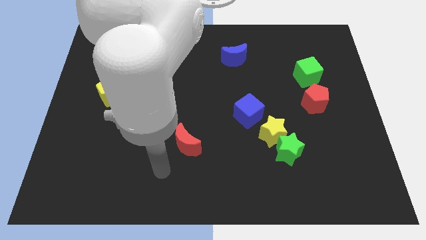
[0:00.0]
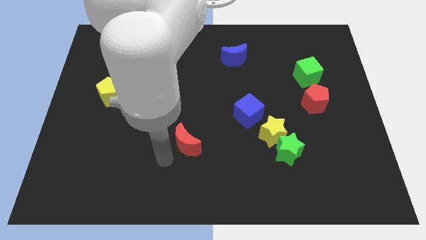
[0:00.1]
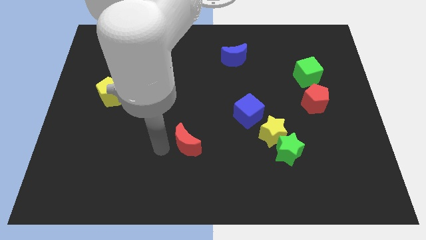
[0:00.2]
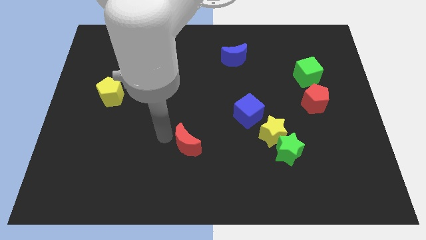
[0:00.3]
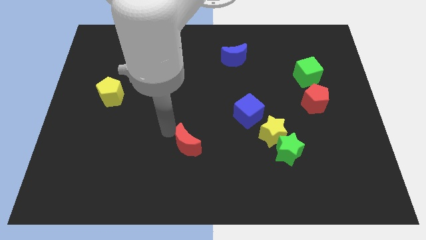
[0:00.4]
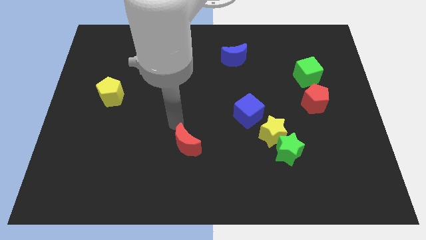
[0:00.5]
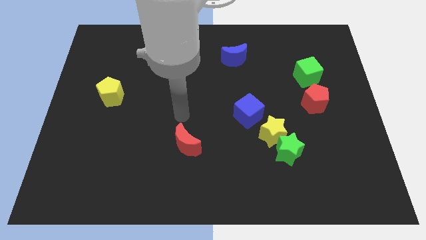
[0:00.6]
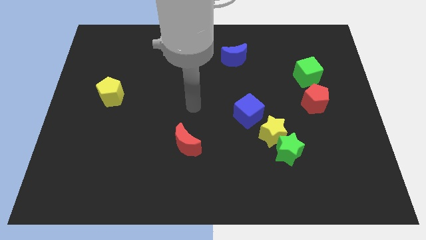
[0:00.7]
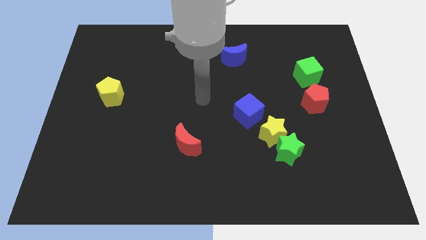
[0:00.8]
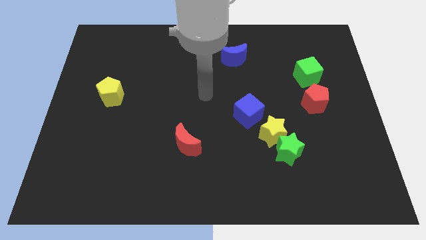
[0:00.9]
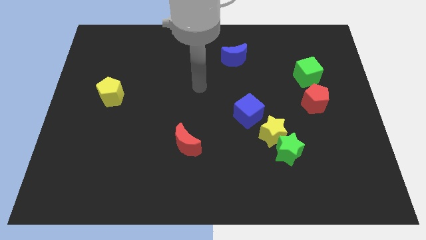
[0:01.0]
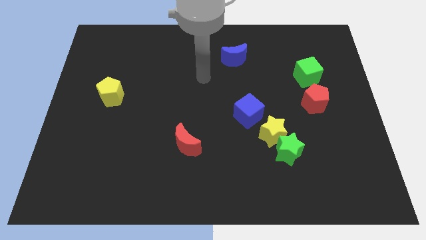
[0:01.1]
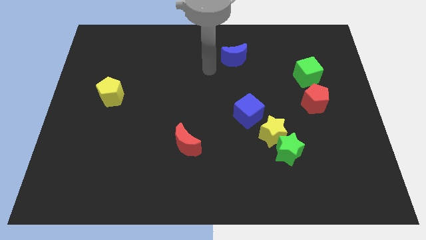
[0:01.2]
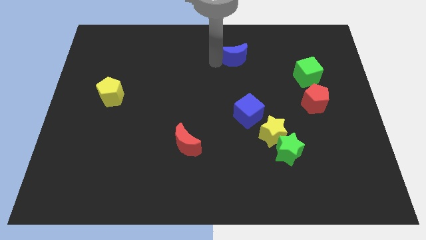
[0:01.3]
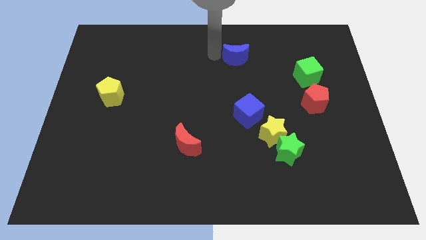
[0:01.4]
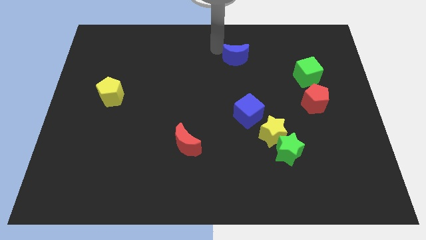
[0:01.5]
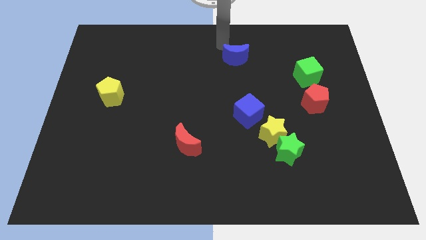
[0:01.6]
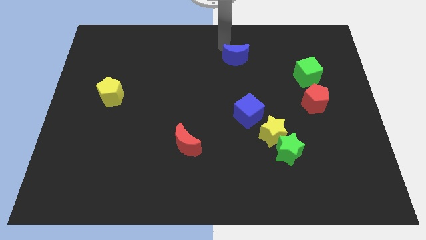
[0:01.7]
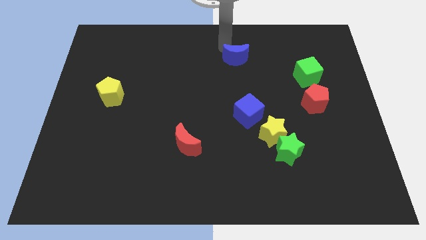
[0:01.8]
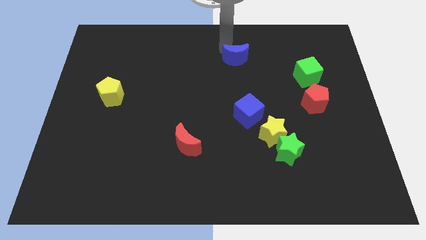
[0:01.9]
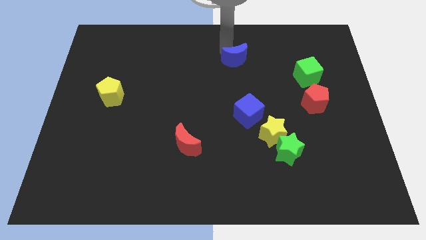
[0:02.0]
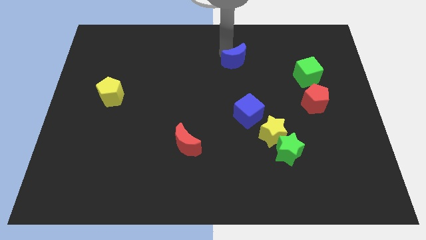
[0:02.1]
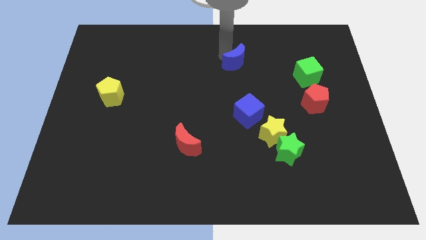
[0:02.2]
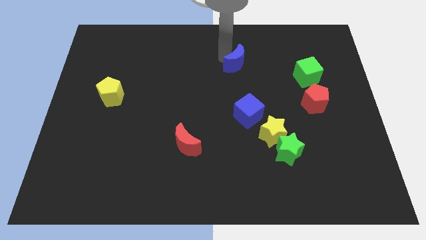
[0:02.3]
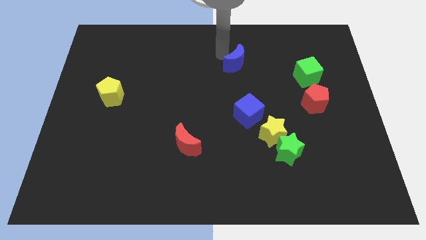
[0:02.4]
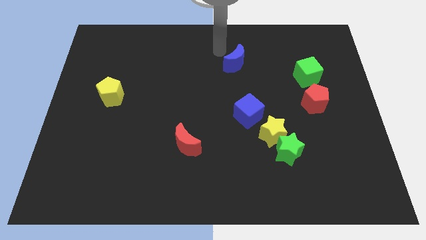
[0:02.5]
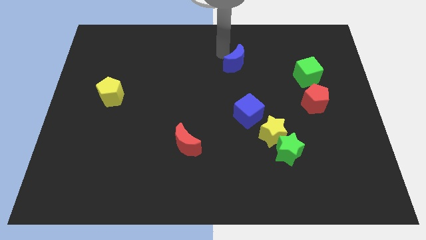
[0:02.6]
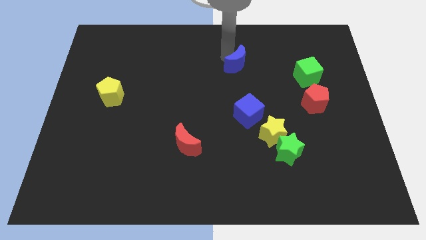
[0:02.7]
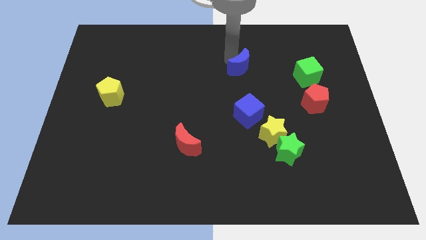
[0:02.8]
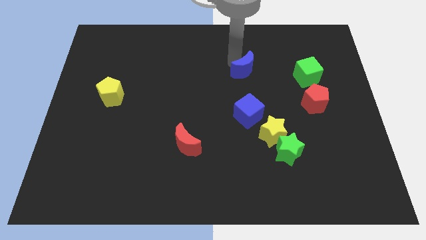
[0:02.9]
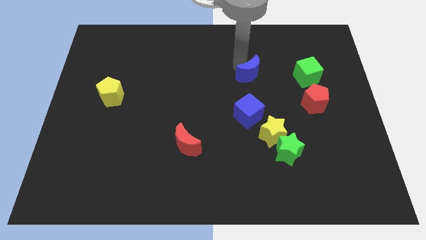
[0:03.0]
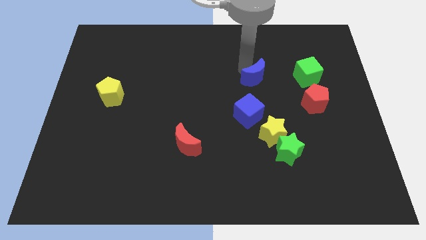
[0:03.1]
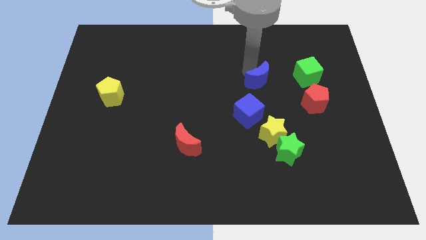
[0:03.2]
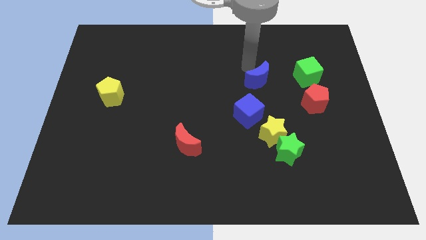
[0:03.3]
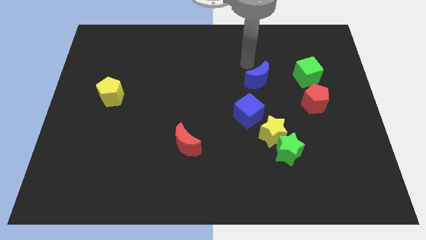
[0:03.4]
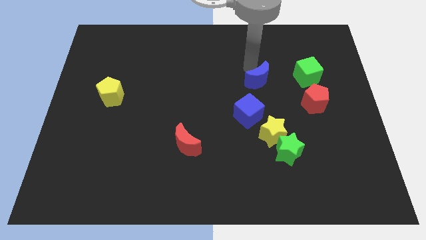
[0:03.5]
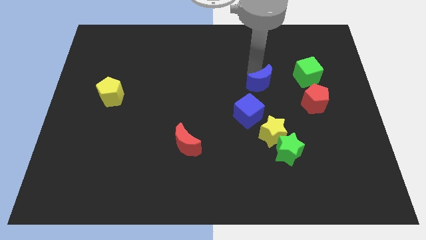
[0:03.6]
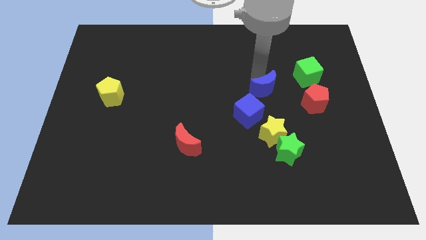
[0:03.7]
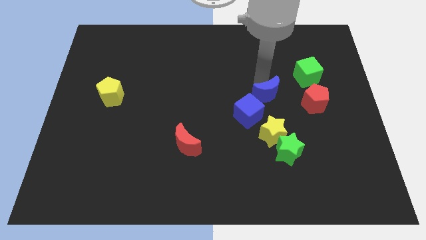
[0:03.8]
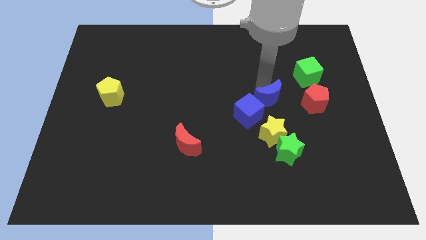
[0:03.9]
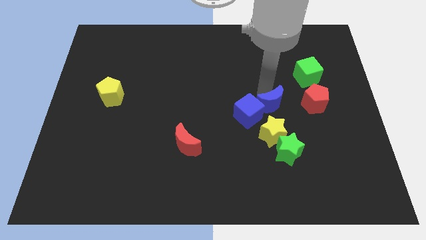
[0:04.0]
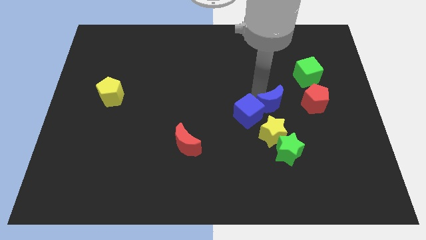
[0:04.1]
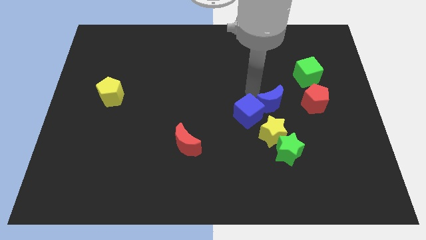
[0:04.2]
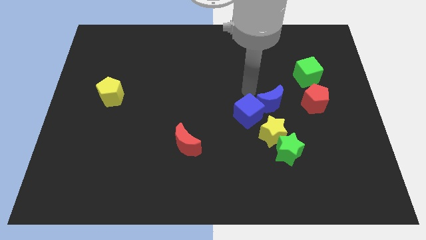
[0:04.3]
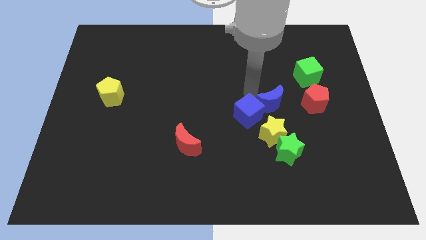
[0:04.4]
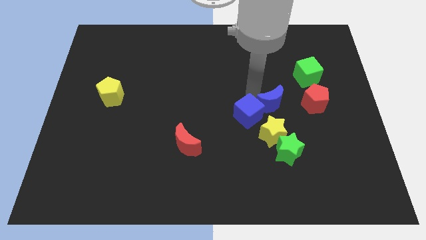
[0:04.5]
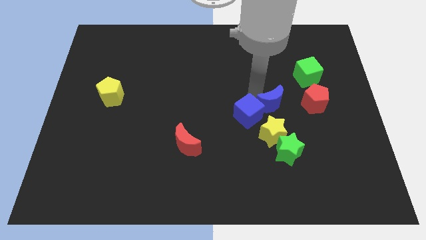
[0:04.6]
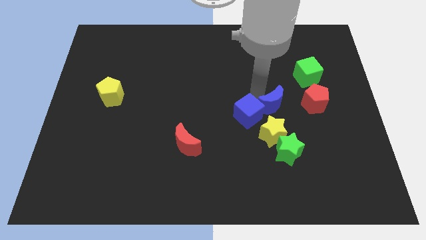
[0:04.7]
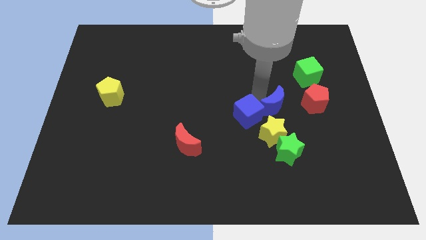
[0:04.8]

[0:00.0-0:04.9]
move the blue moon diagonally up and to the right of the yellow star

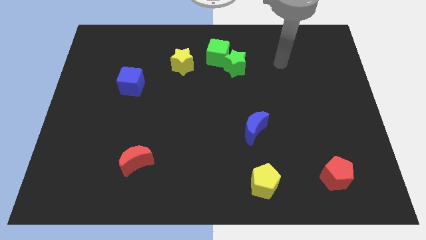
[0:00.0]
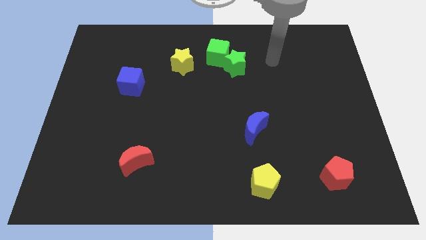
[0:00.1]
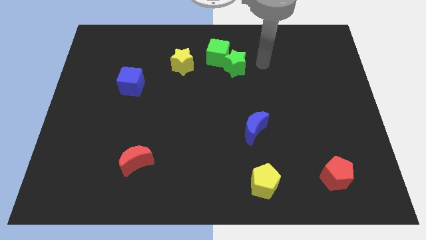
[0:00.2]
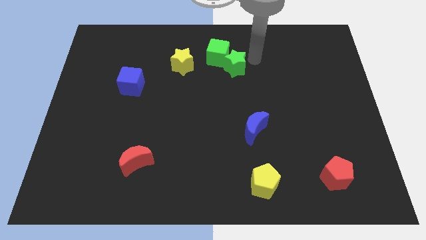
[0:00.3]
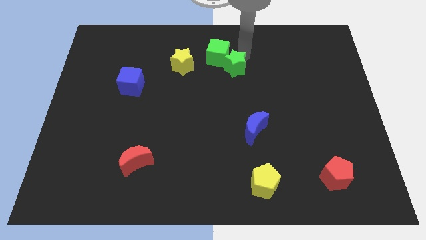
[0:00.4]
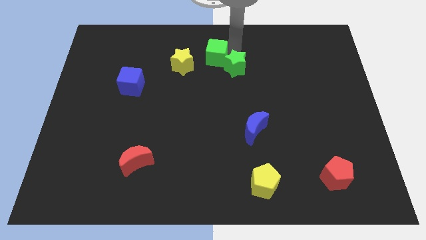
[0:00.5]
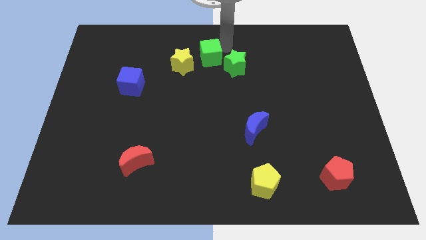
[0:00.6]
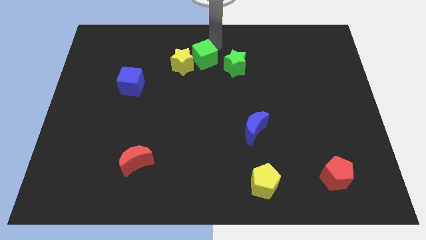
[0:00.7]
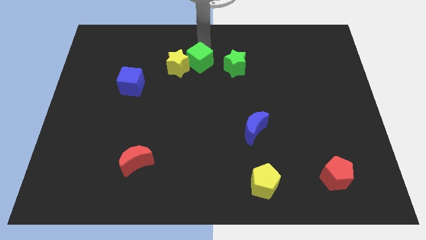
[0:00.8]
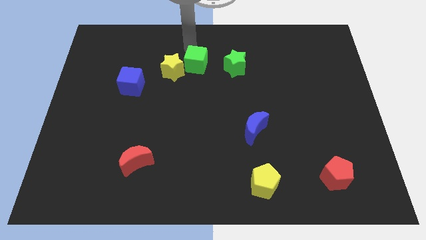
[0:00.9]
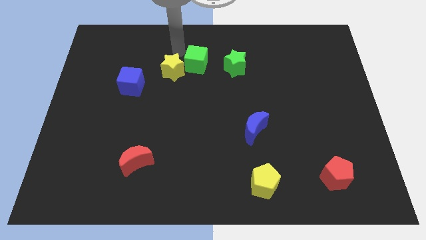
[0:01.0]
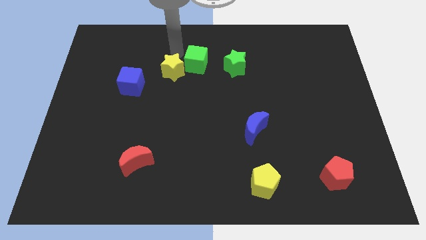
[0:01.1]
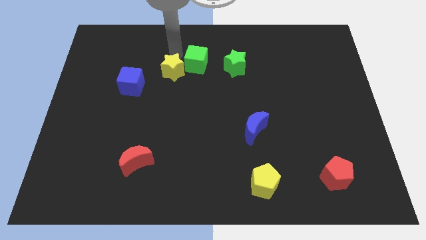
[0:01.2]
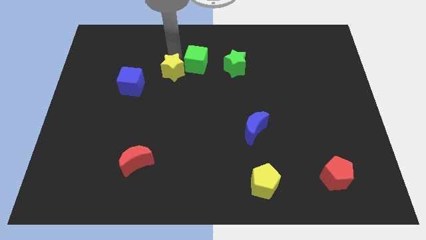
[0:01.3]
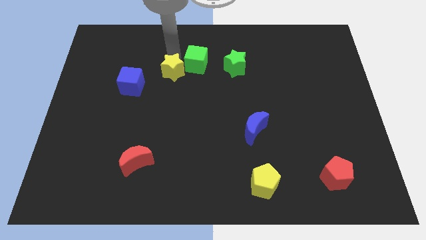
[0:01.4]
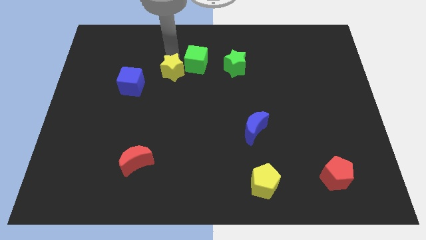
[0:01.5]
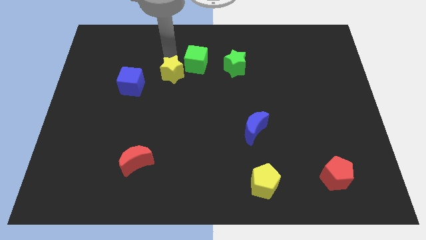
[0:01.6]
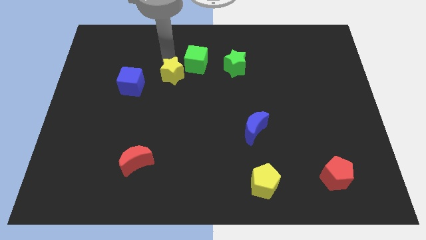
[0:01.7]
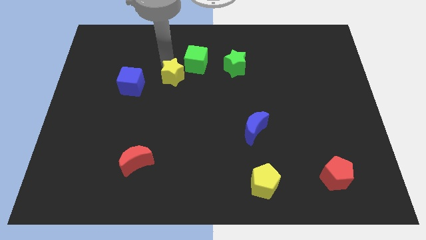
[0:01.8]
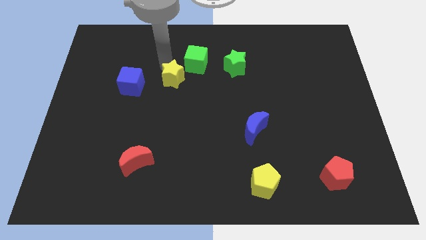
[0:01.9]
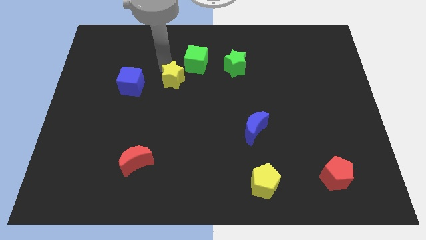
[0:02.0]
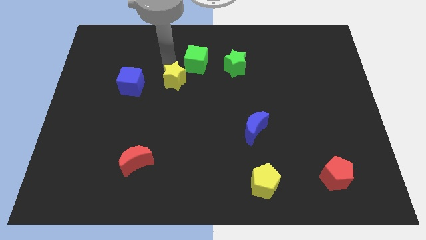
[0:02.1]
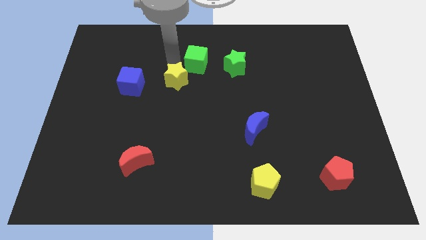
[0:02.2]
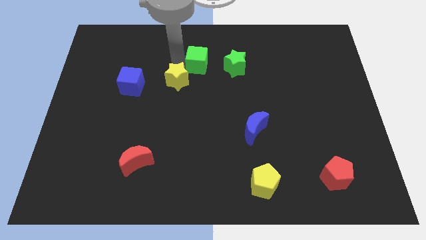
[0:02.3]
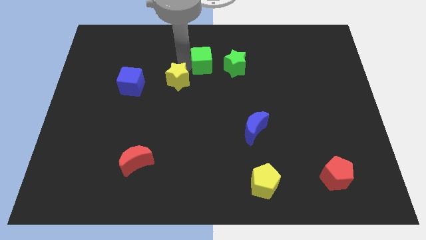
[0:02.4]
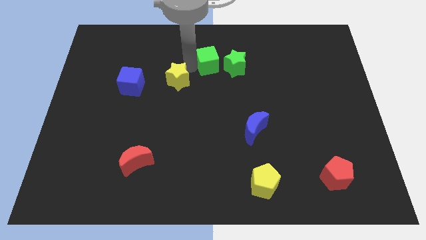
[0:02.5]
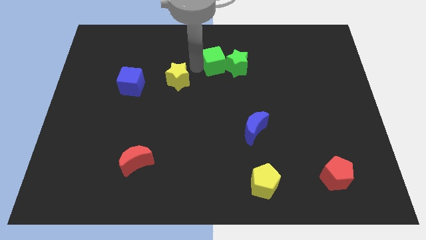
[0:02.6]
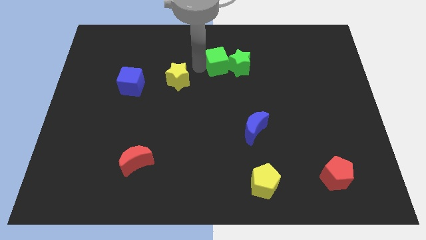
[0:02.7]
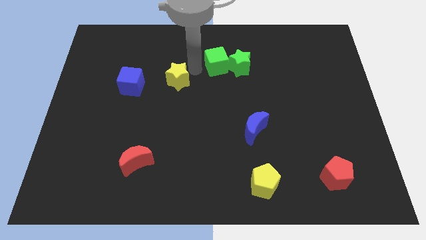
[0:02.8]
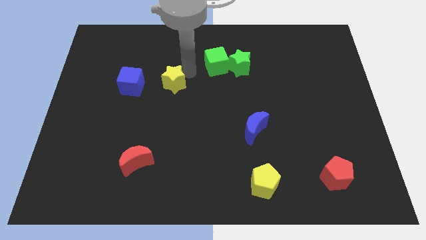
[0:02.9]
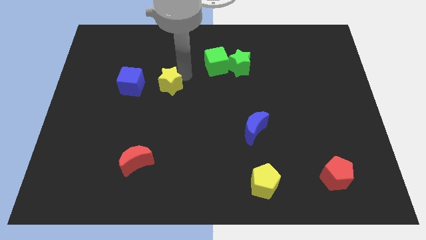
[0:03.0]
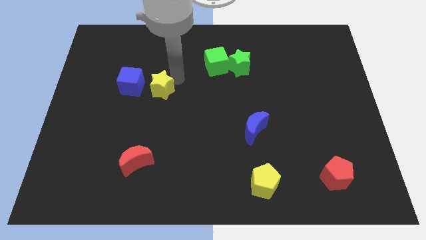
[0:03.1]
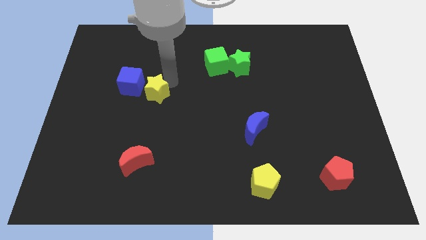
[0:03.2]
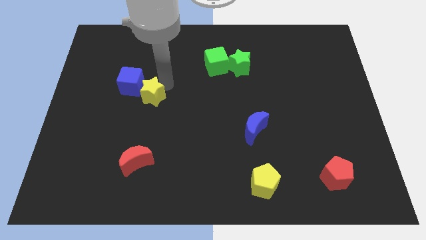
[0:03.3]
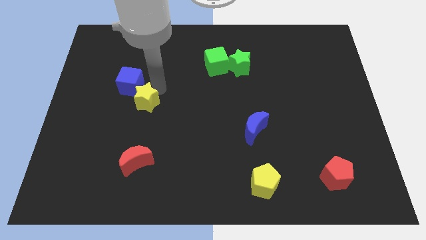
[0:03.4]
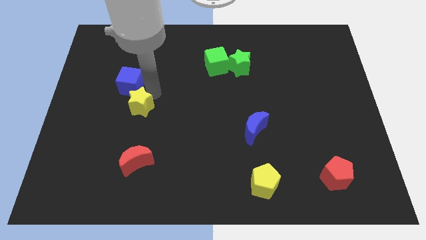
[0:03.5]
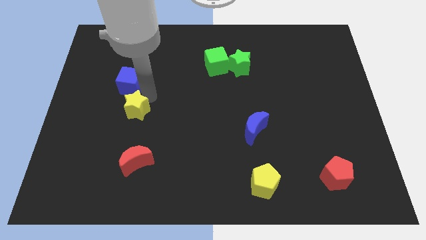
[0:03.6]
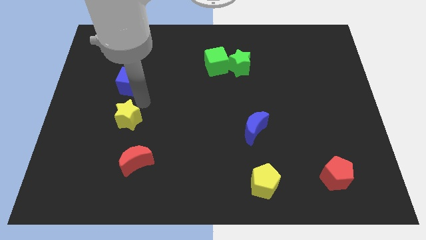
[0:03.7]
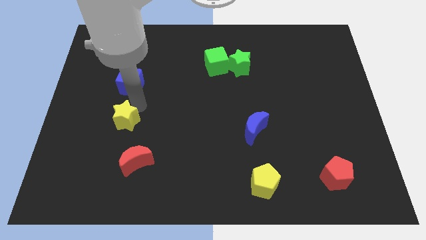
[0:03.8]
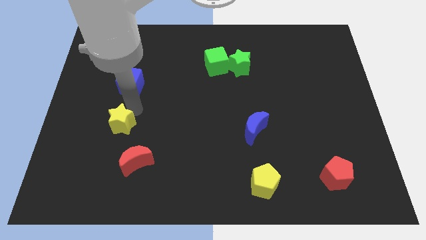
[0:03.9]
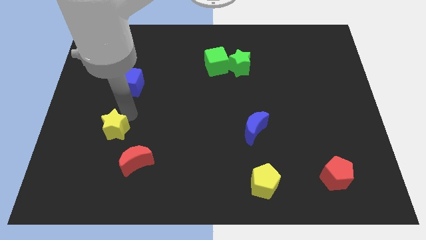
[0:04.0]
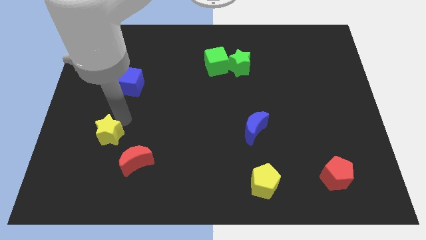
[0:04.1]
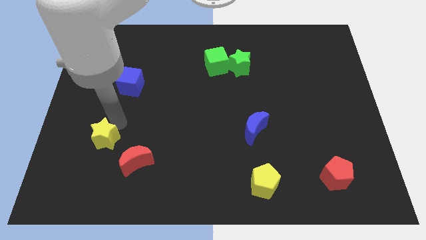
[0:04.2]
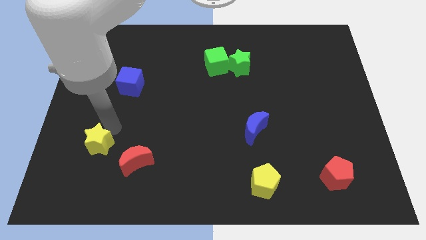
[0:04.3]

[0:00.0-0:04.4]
push the yellow star just left of the red moon
